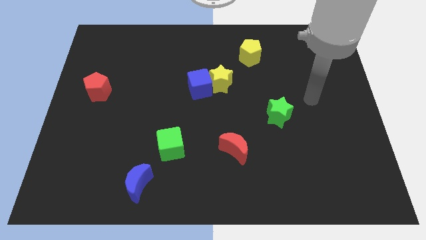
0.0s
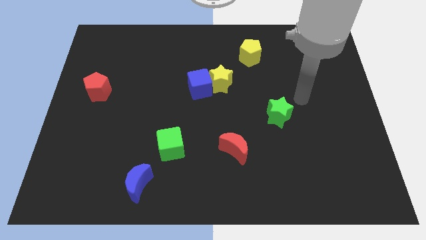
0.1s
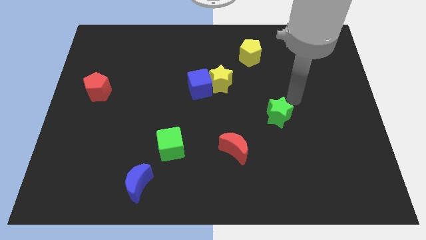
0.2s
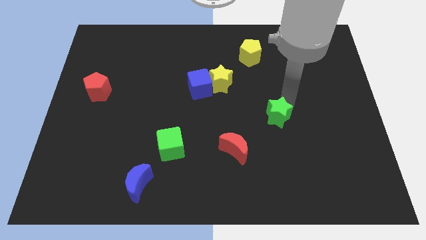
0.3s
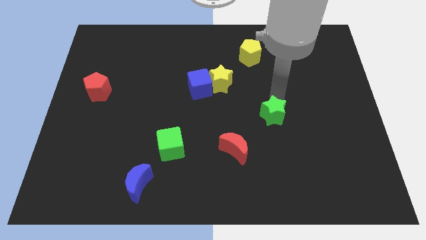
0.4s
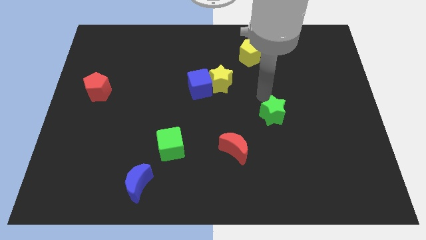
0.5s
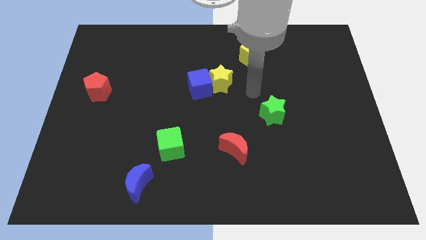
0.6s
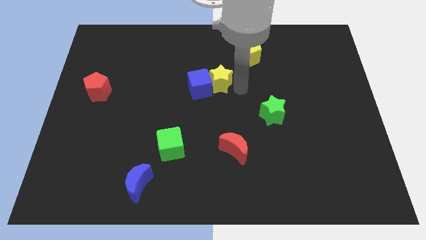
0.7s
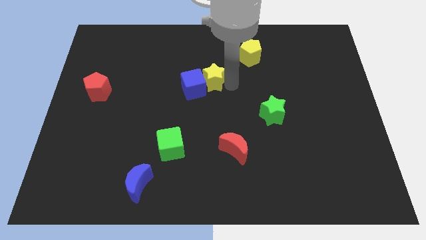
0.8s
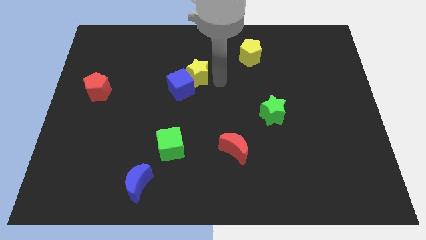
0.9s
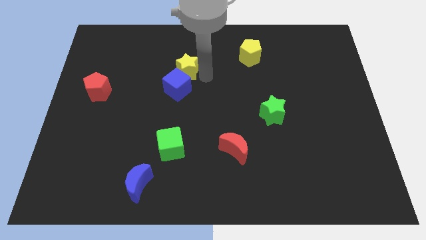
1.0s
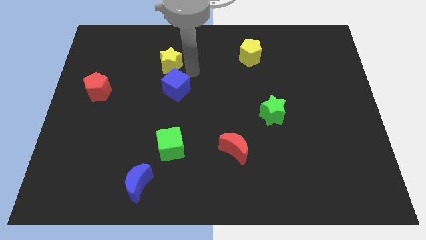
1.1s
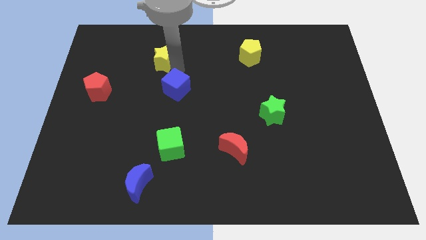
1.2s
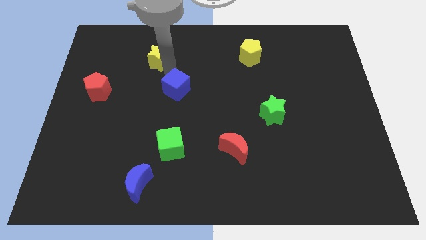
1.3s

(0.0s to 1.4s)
pull the blue cube apart from the yellow star

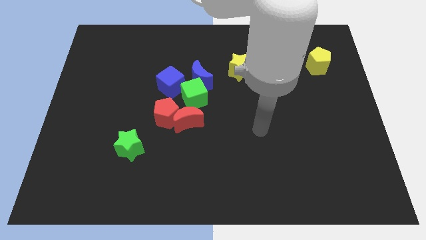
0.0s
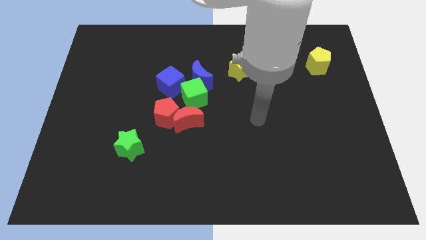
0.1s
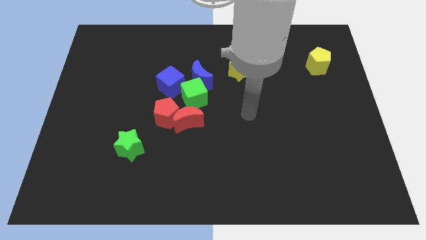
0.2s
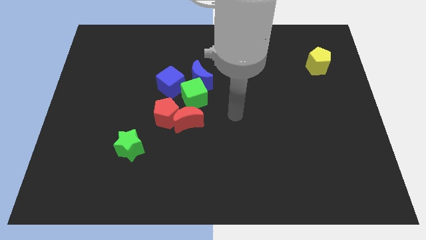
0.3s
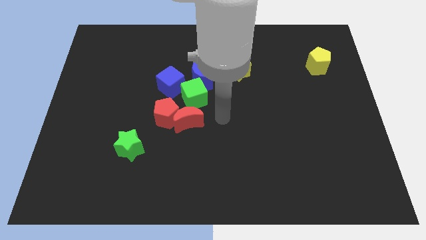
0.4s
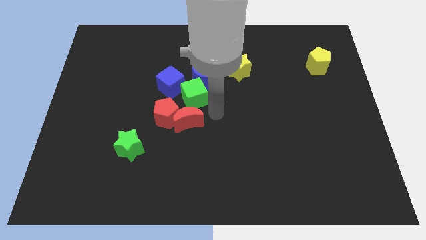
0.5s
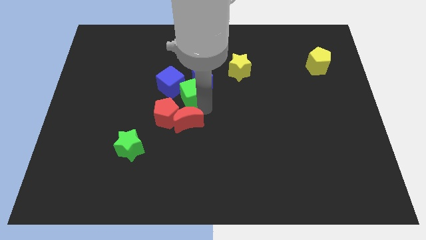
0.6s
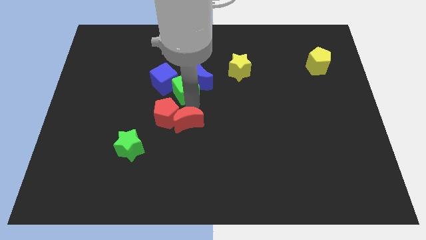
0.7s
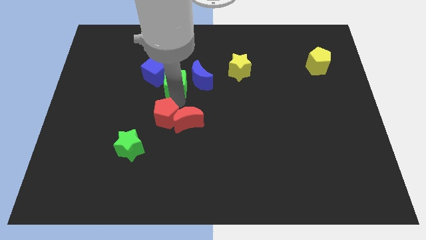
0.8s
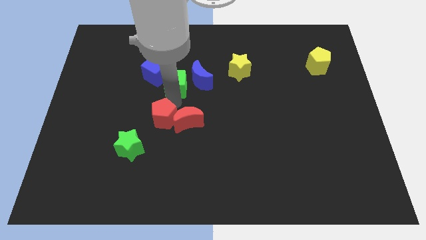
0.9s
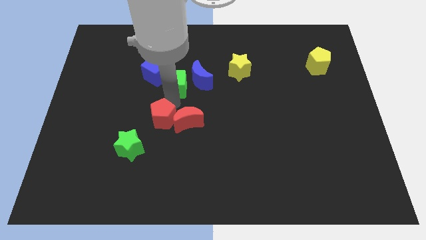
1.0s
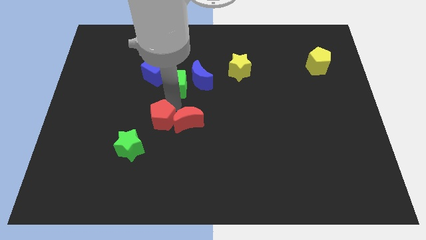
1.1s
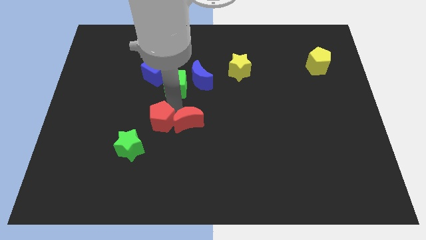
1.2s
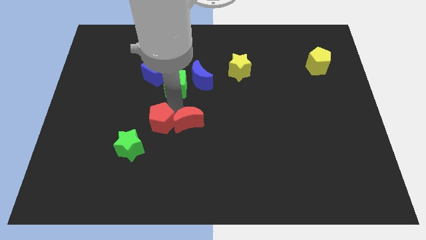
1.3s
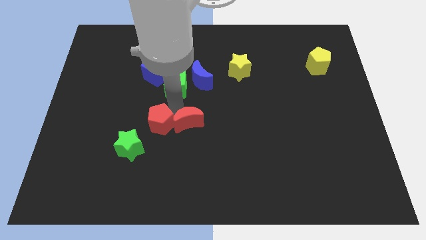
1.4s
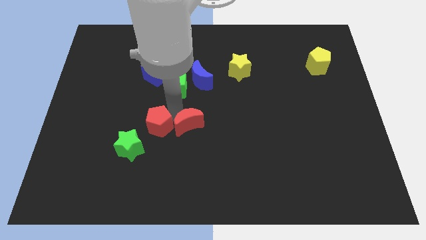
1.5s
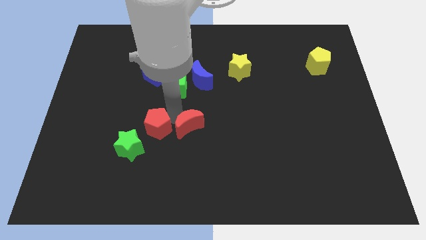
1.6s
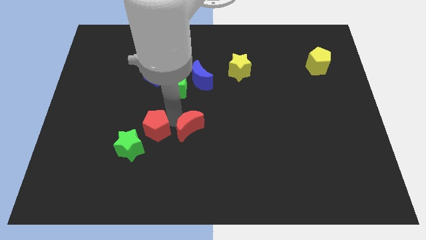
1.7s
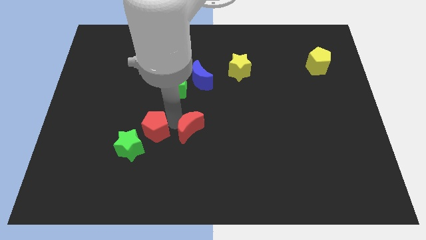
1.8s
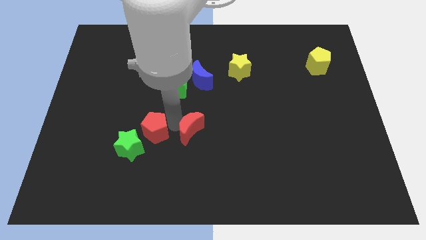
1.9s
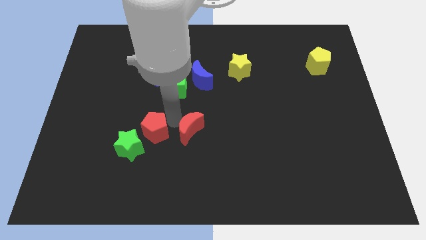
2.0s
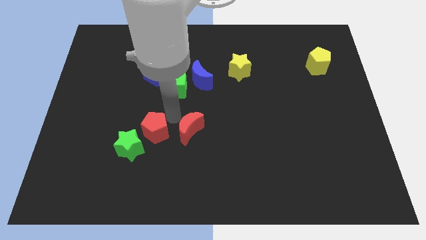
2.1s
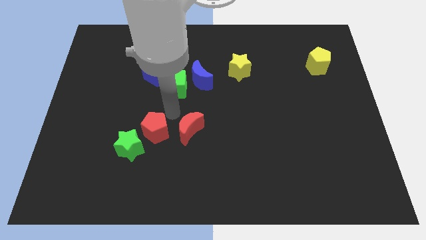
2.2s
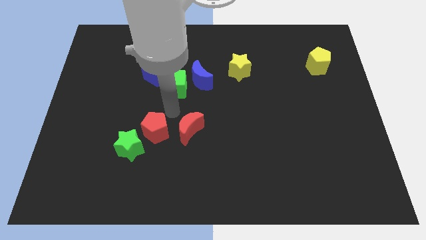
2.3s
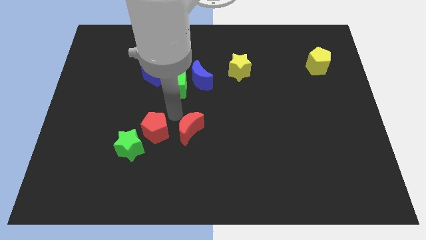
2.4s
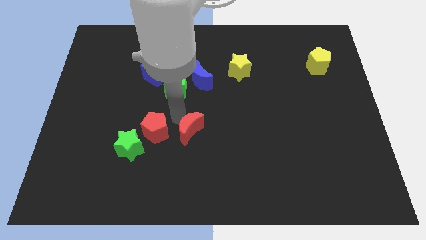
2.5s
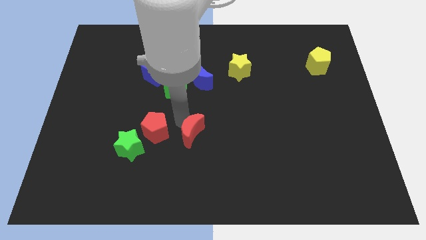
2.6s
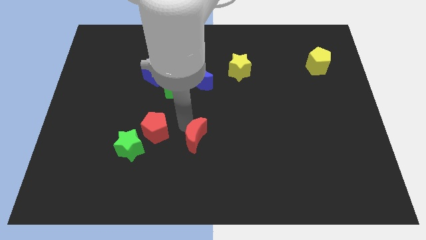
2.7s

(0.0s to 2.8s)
pull the red moon apart from the red pentagon and green cube

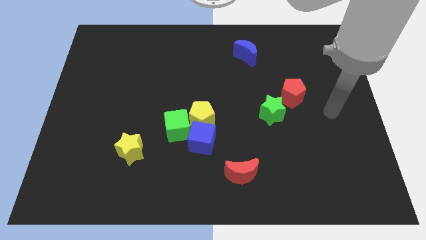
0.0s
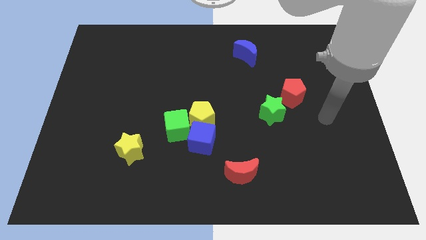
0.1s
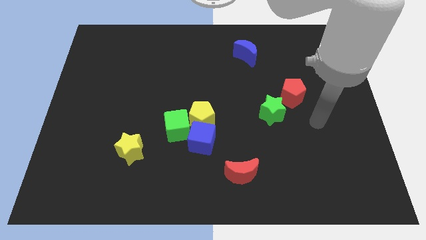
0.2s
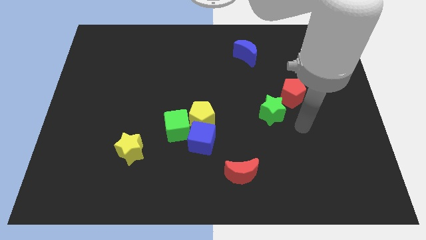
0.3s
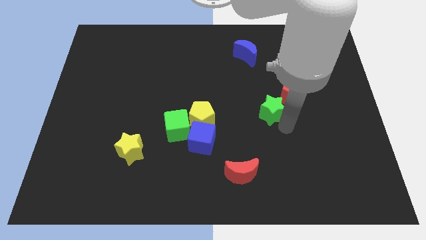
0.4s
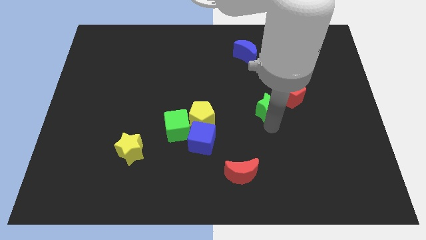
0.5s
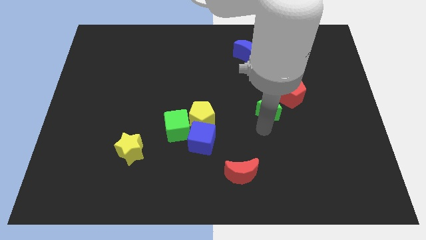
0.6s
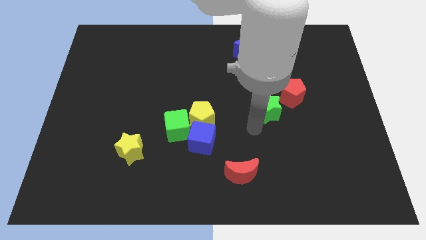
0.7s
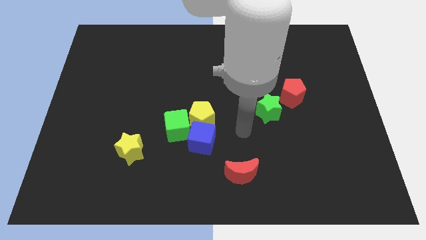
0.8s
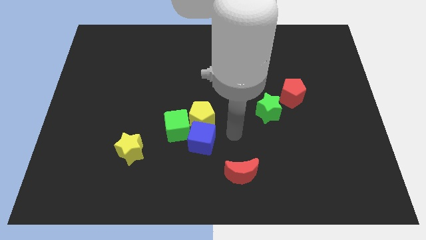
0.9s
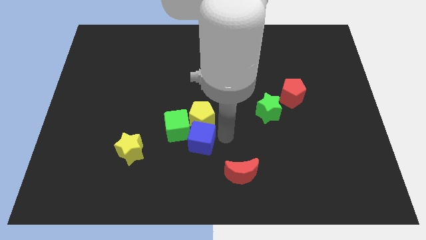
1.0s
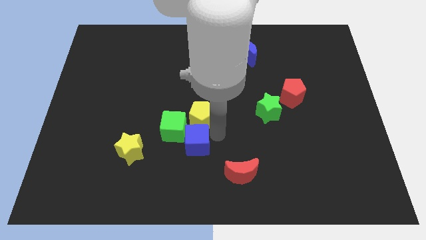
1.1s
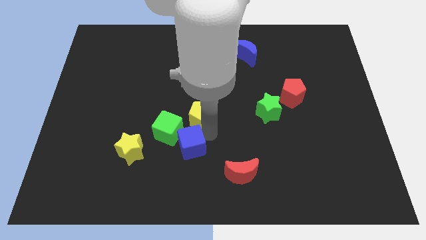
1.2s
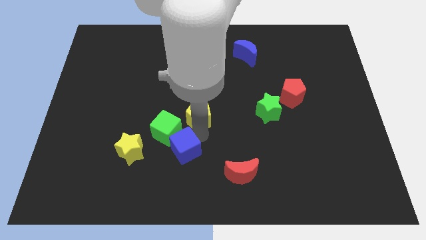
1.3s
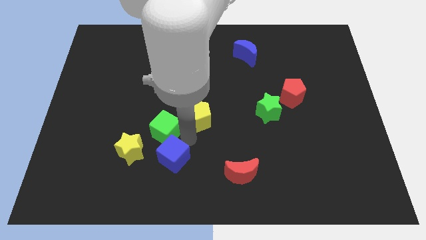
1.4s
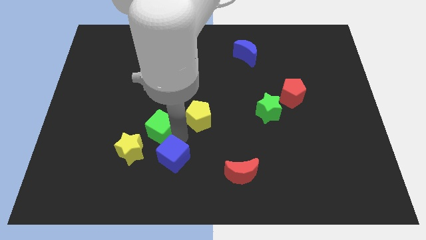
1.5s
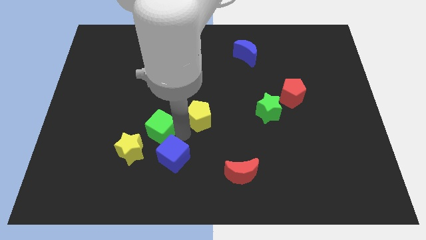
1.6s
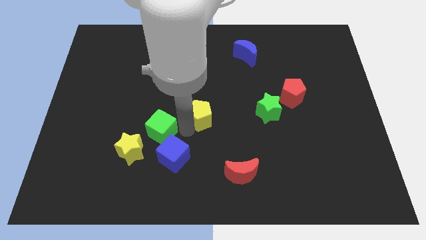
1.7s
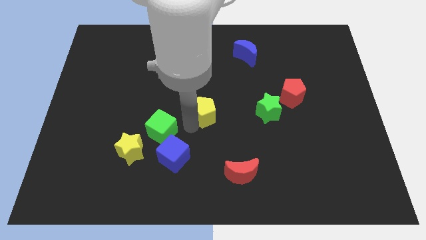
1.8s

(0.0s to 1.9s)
pull the yellow pentagon apart from the blue cube and green cube

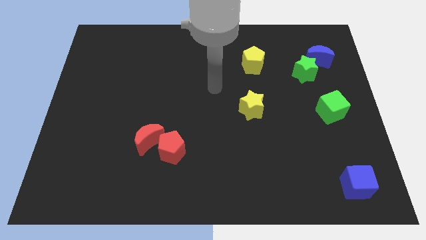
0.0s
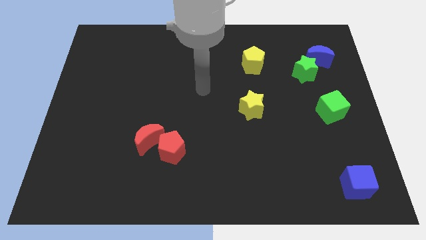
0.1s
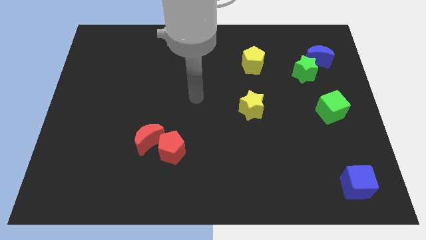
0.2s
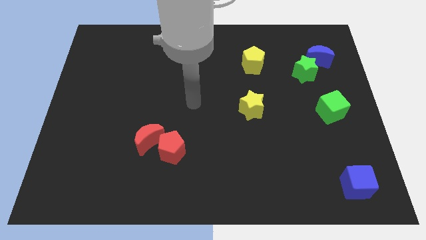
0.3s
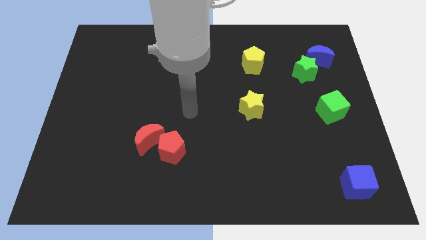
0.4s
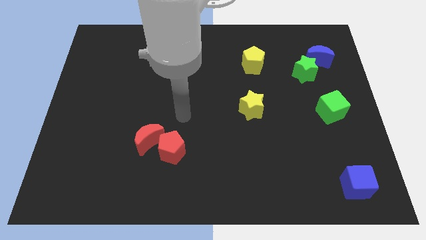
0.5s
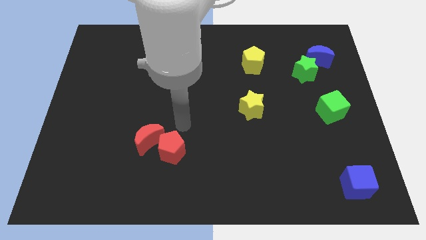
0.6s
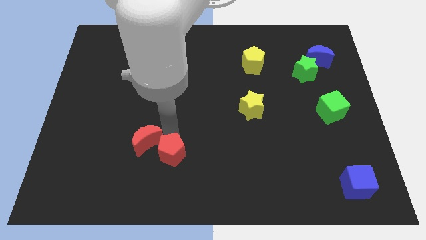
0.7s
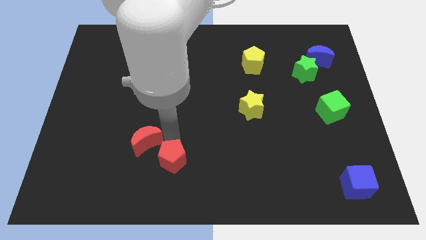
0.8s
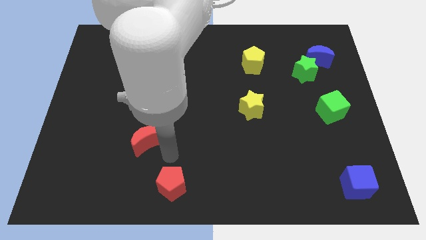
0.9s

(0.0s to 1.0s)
move the red moon away from the red pentagon

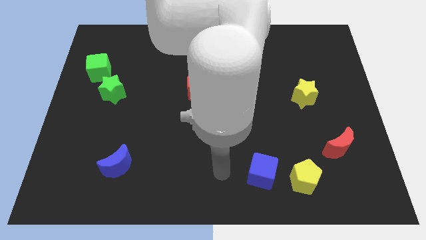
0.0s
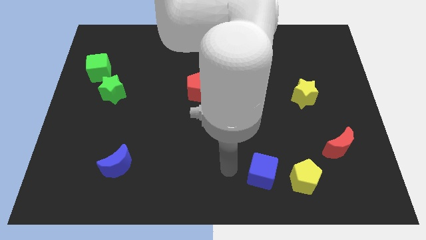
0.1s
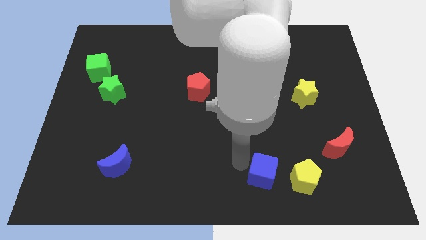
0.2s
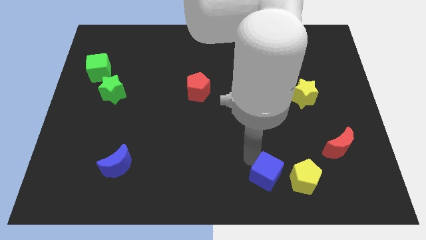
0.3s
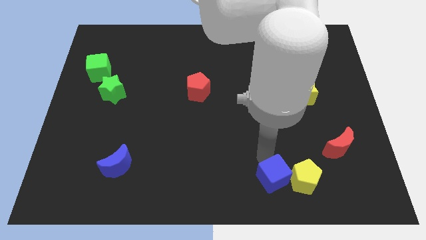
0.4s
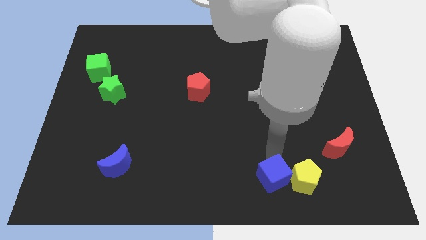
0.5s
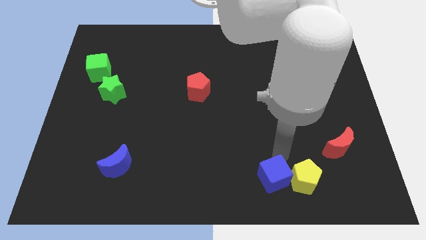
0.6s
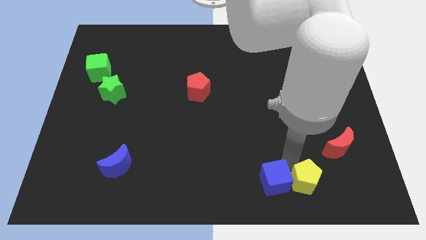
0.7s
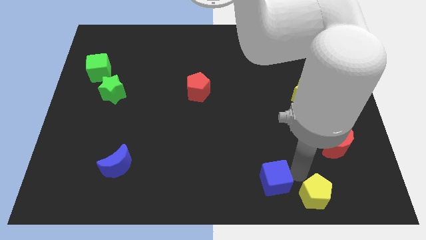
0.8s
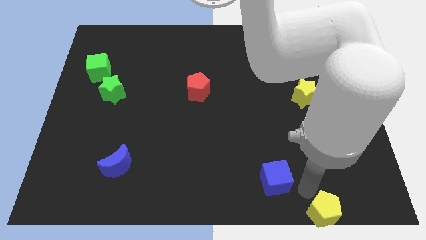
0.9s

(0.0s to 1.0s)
pull the blue cube apart from the yellow pentagon

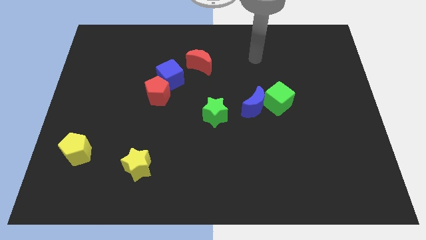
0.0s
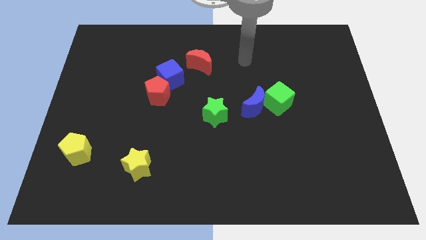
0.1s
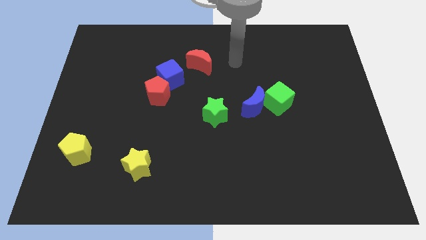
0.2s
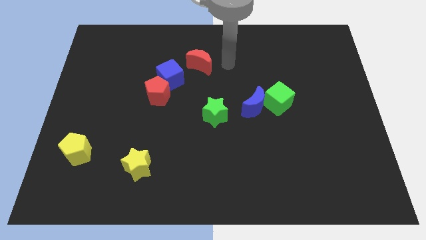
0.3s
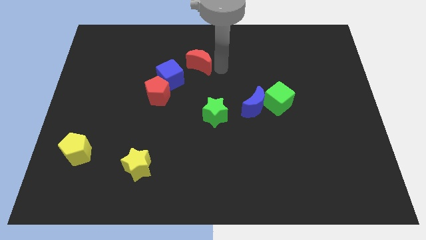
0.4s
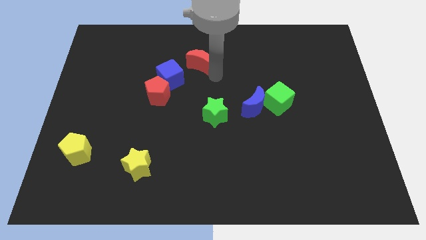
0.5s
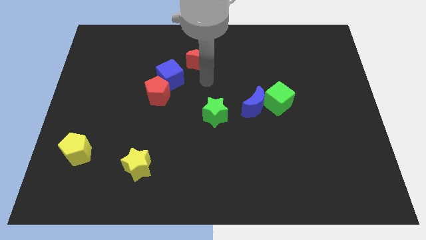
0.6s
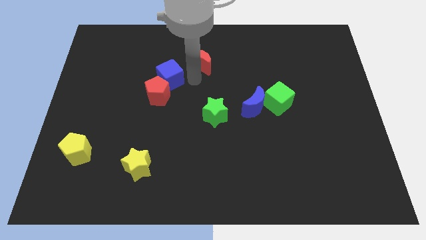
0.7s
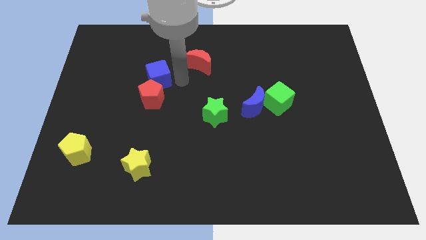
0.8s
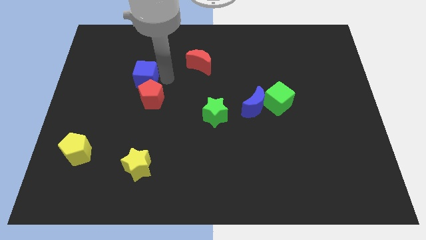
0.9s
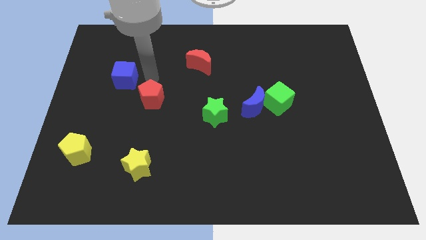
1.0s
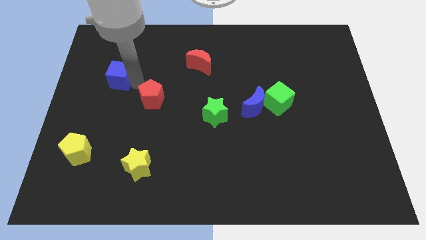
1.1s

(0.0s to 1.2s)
move the red pentagon away from the blue cube

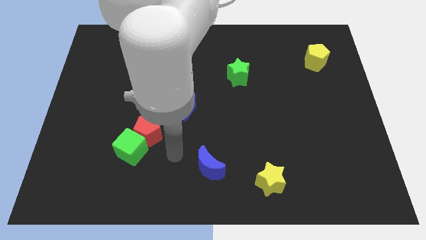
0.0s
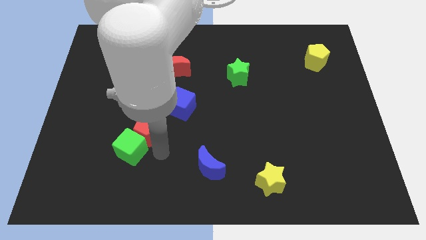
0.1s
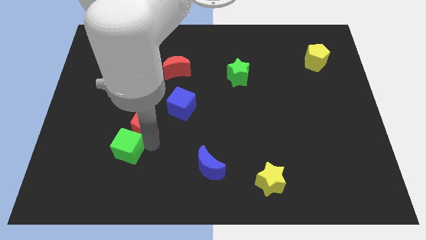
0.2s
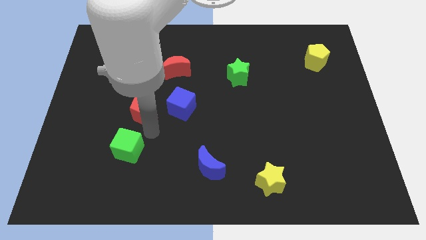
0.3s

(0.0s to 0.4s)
pull the green cube apart from the red pentagon
